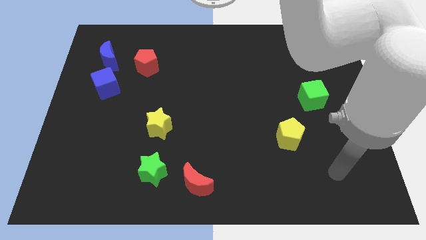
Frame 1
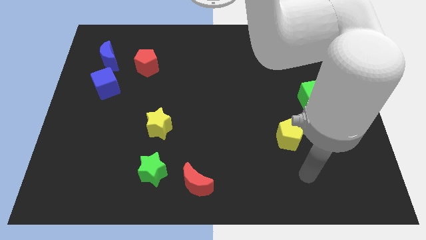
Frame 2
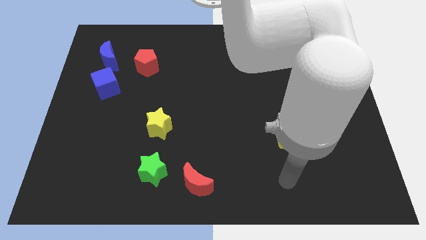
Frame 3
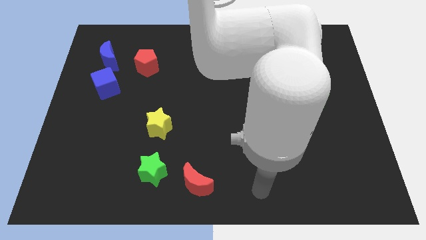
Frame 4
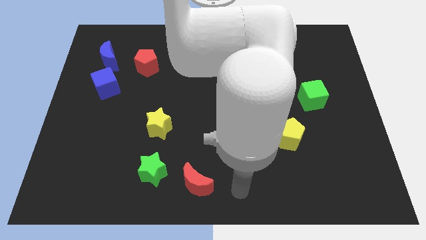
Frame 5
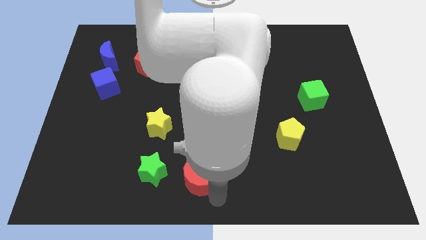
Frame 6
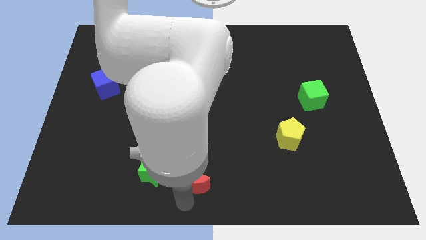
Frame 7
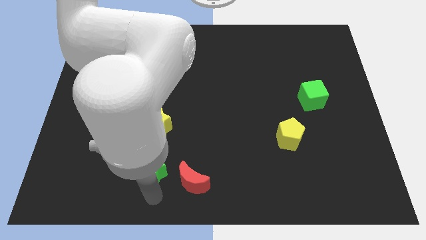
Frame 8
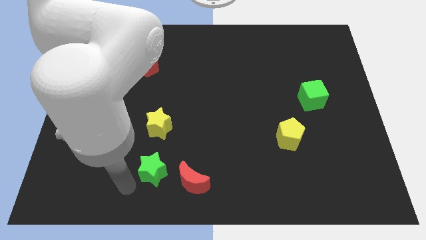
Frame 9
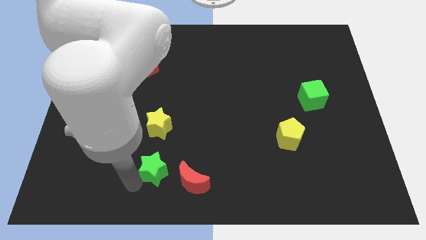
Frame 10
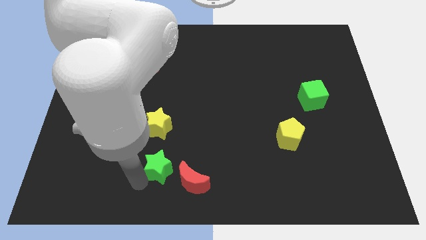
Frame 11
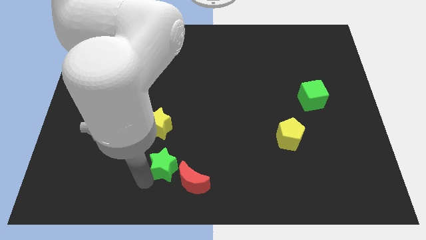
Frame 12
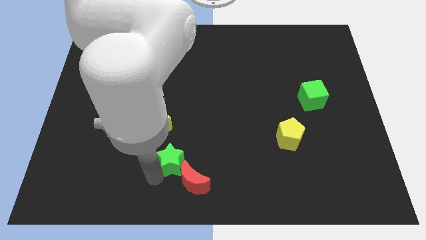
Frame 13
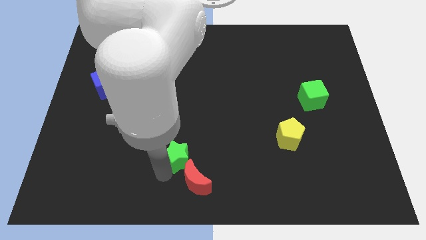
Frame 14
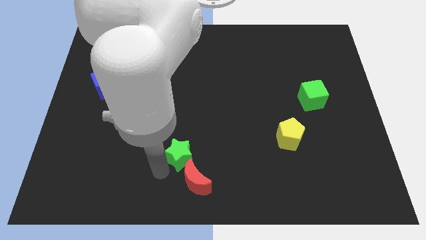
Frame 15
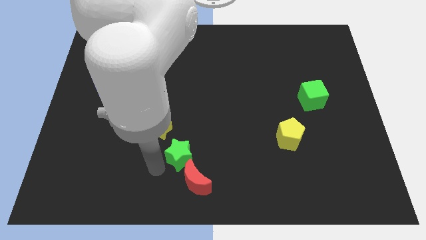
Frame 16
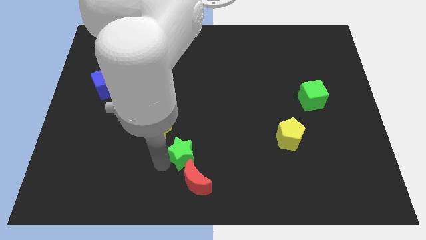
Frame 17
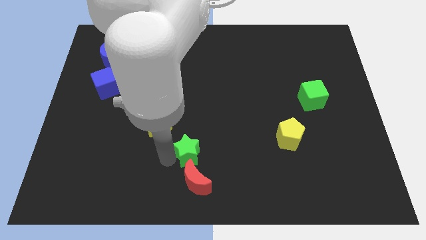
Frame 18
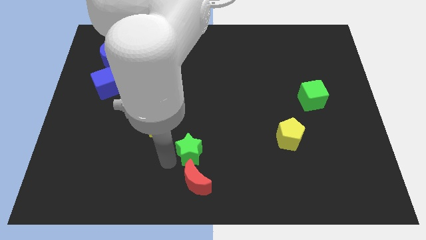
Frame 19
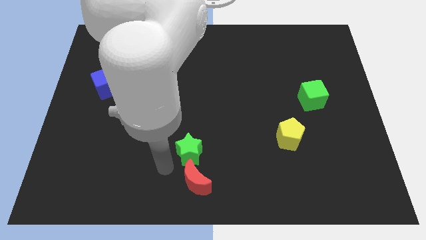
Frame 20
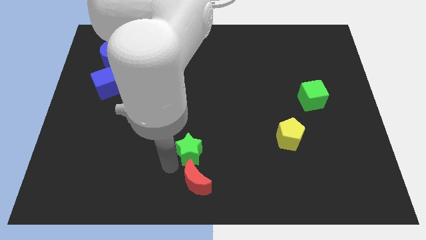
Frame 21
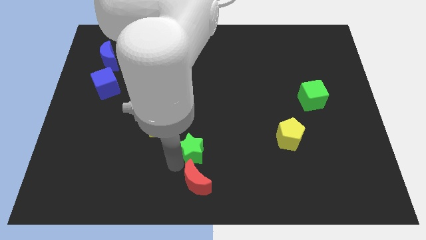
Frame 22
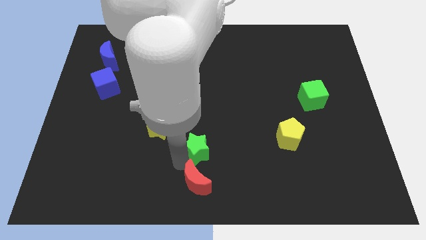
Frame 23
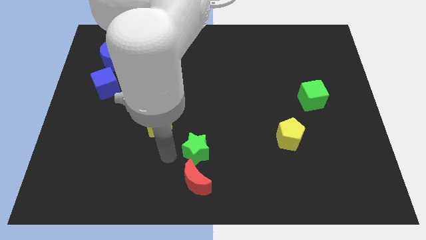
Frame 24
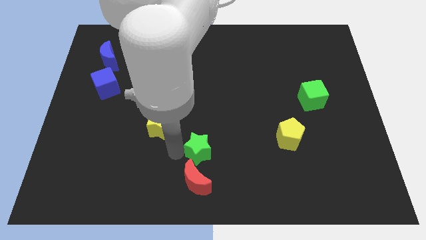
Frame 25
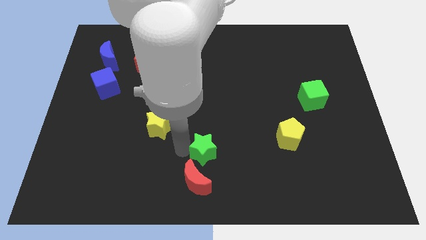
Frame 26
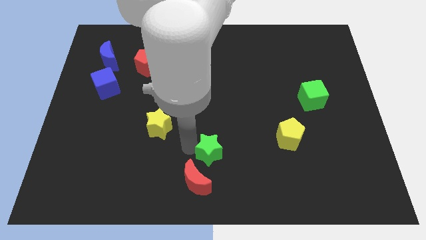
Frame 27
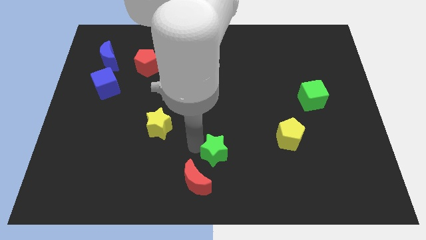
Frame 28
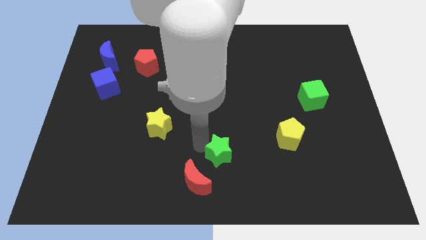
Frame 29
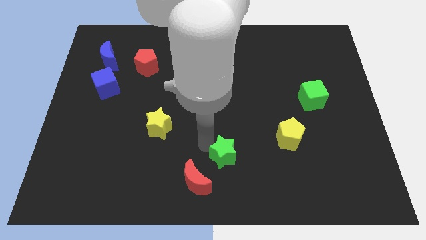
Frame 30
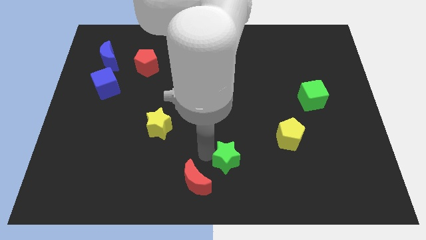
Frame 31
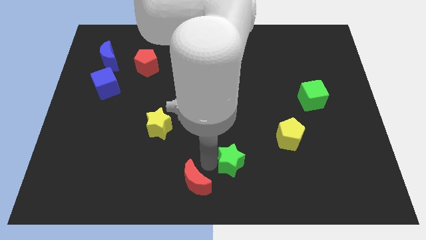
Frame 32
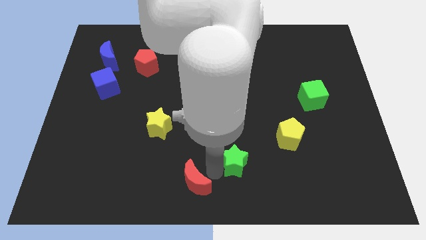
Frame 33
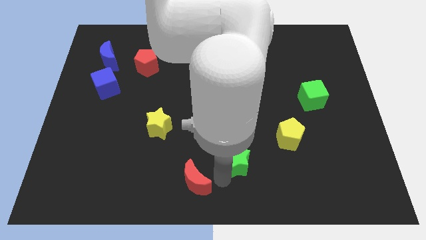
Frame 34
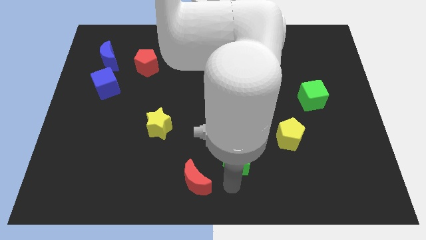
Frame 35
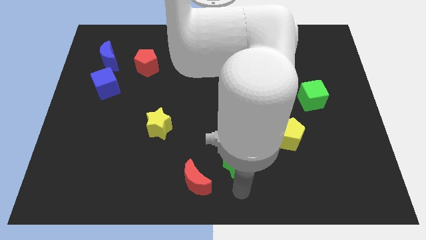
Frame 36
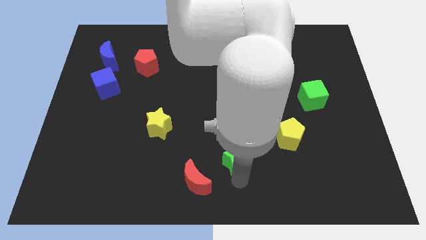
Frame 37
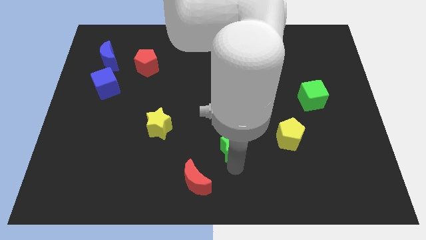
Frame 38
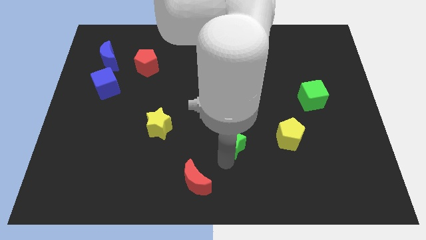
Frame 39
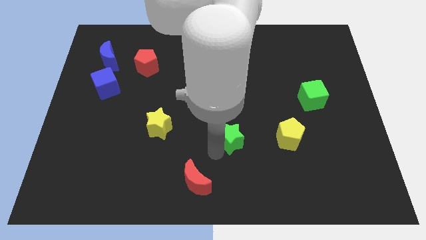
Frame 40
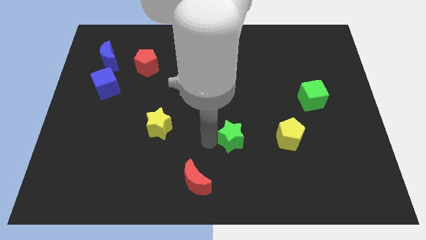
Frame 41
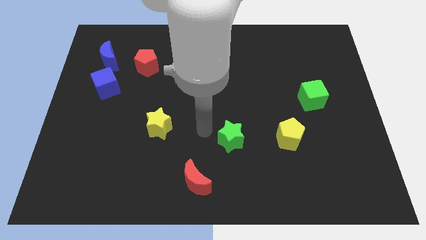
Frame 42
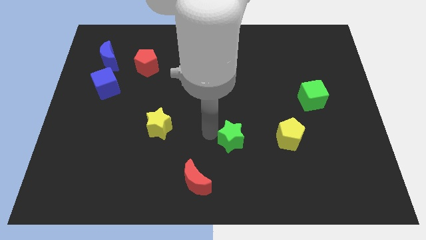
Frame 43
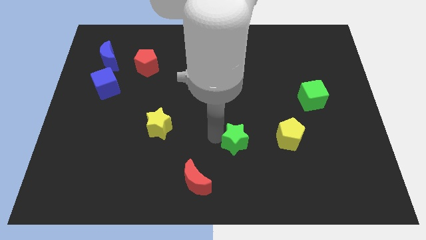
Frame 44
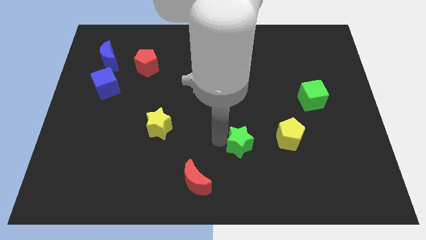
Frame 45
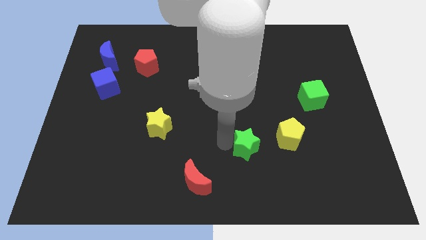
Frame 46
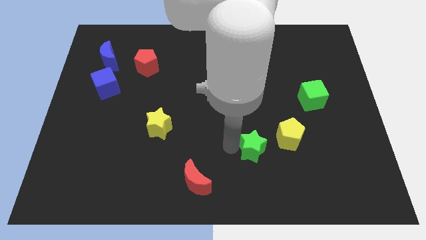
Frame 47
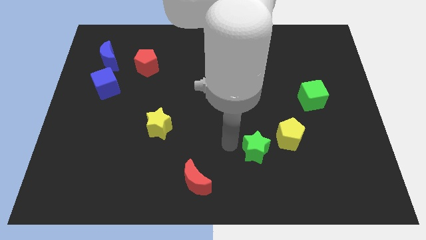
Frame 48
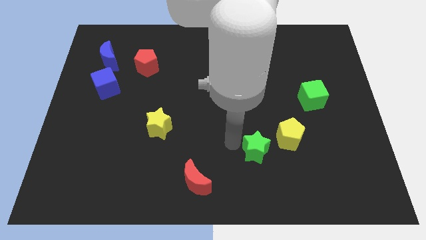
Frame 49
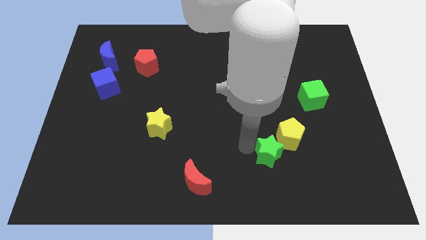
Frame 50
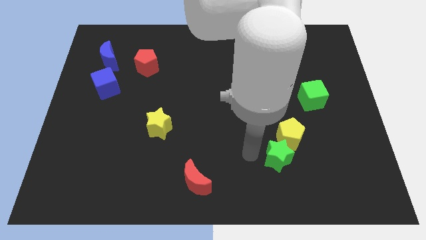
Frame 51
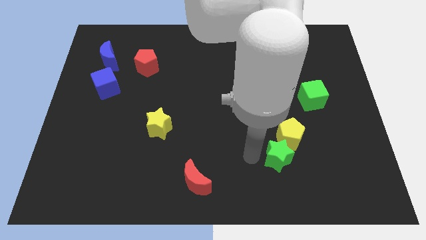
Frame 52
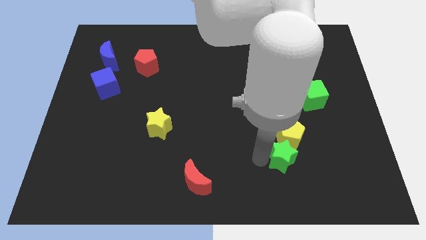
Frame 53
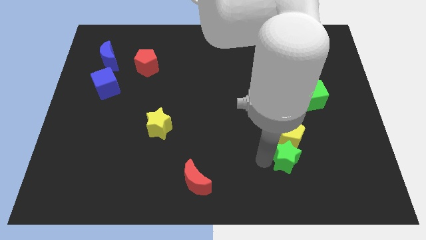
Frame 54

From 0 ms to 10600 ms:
slide the green star diagonally down and to the right of the yellow pentagon
